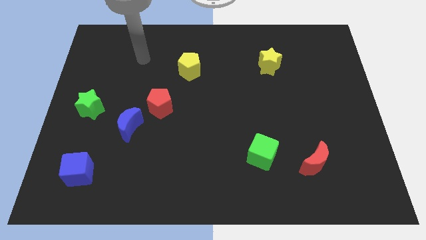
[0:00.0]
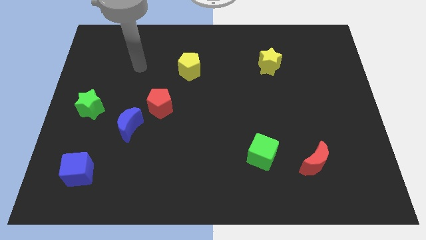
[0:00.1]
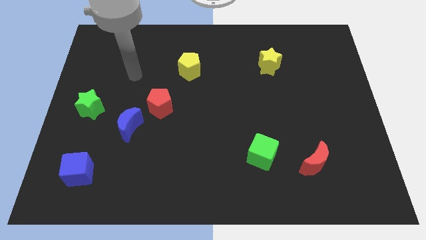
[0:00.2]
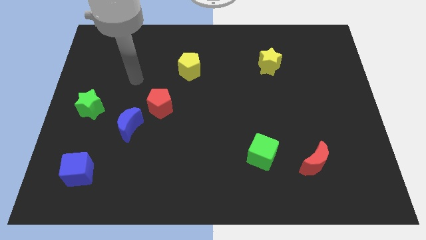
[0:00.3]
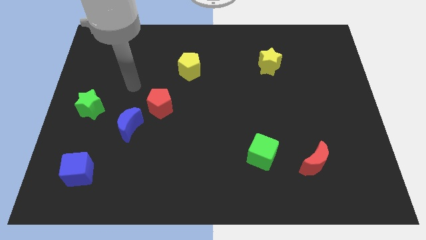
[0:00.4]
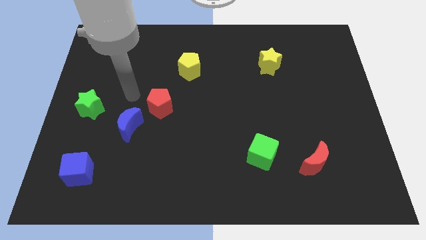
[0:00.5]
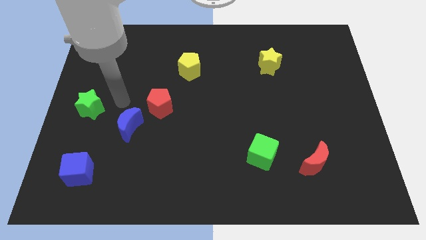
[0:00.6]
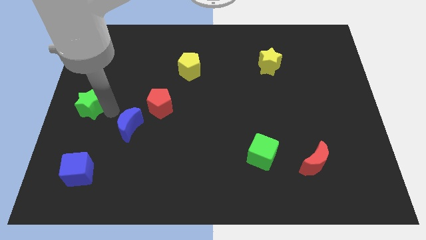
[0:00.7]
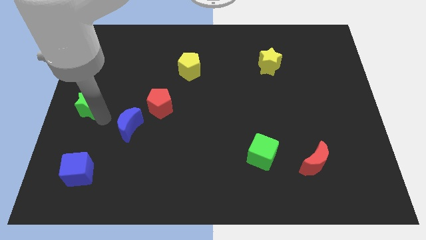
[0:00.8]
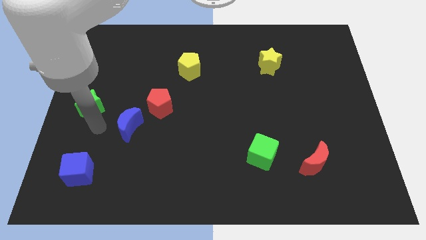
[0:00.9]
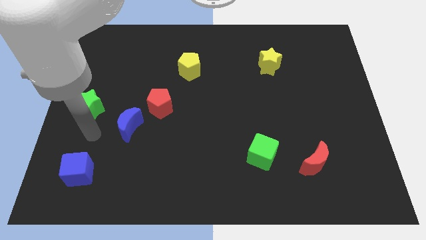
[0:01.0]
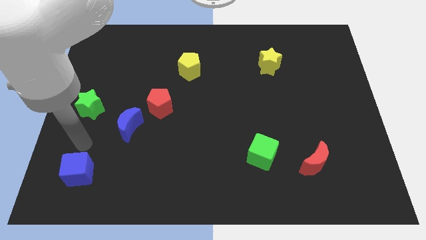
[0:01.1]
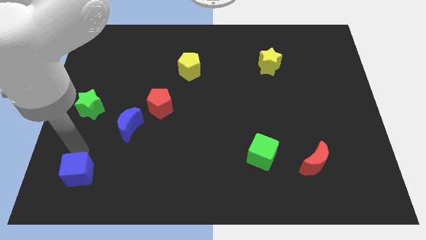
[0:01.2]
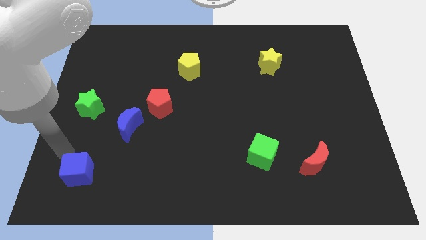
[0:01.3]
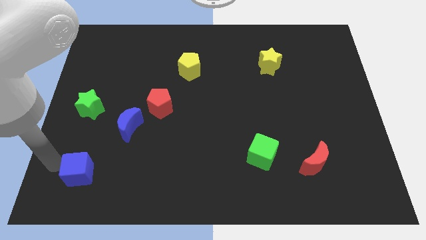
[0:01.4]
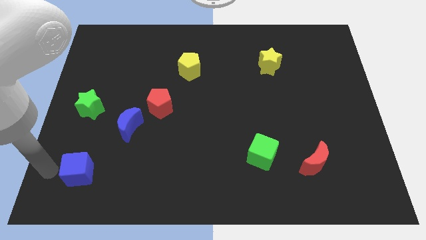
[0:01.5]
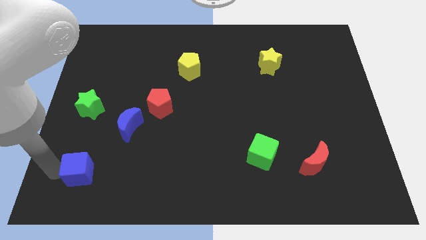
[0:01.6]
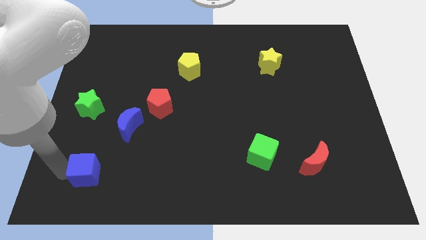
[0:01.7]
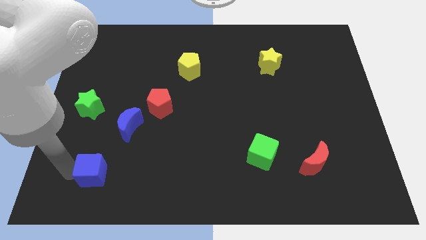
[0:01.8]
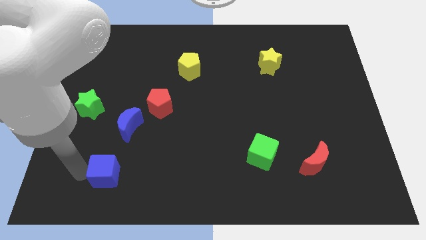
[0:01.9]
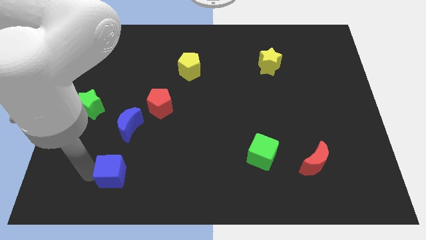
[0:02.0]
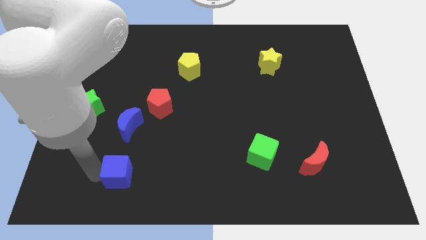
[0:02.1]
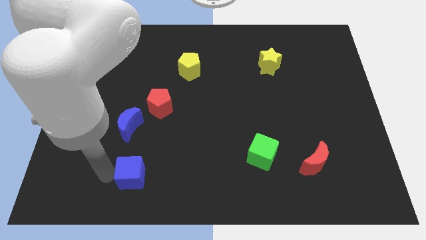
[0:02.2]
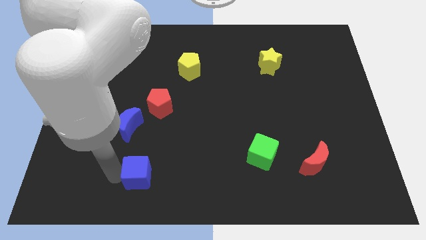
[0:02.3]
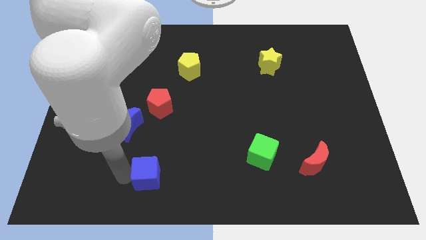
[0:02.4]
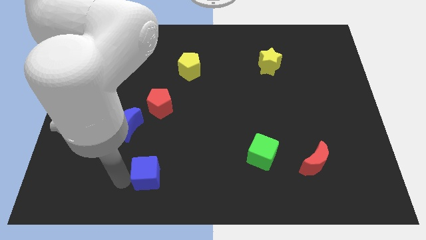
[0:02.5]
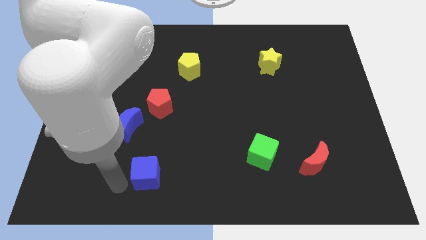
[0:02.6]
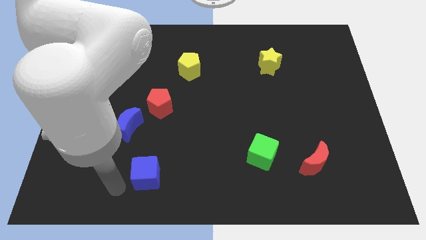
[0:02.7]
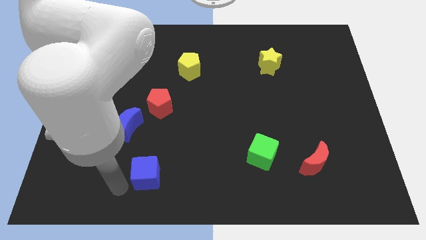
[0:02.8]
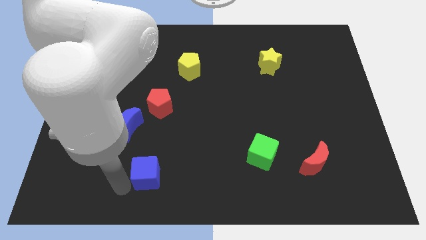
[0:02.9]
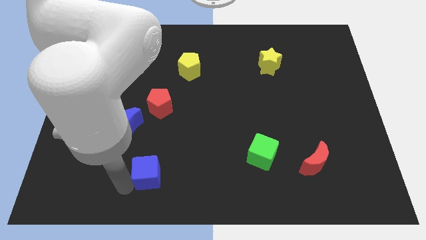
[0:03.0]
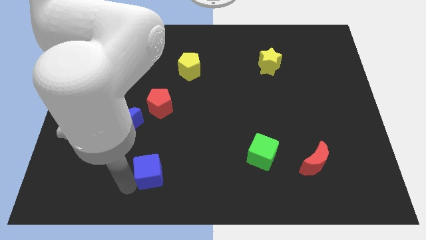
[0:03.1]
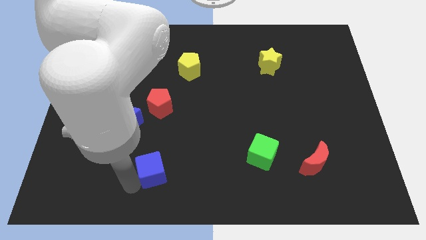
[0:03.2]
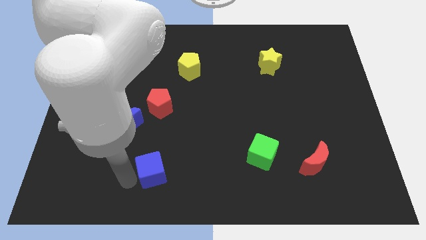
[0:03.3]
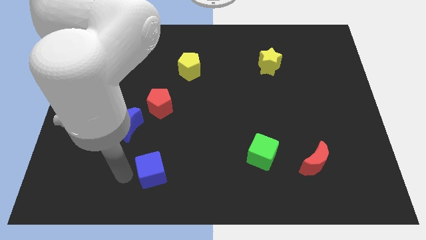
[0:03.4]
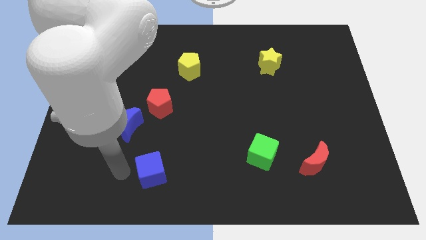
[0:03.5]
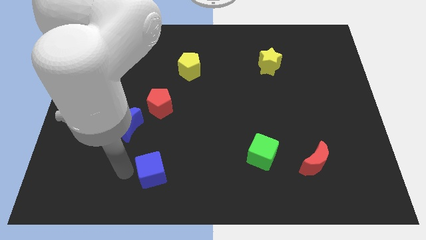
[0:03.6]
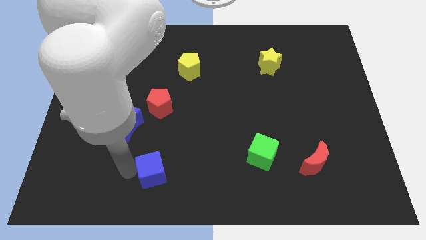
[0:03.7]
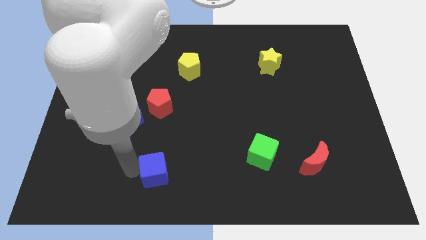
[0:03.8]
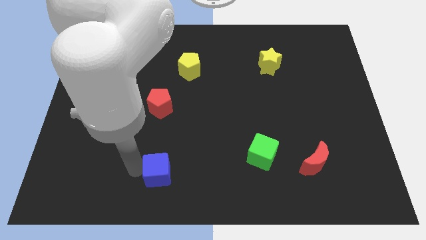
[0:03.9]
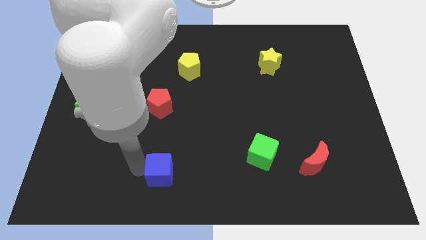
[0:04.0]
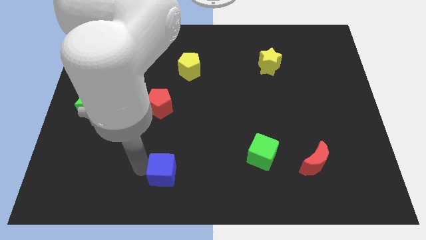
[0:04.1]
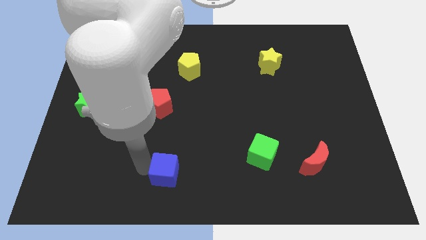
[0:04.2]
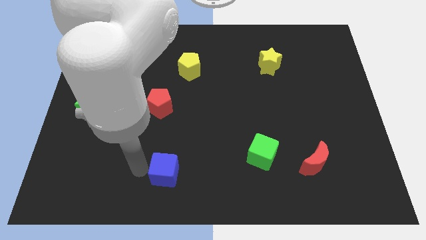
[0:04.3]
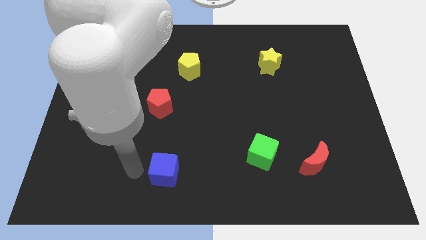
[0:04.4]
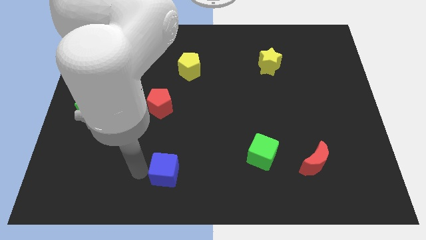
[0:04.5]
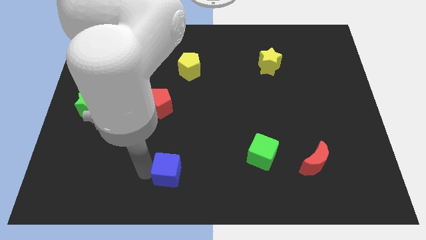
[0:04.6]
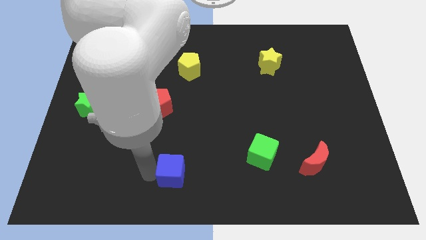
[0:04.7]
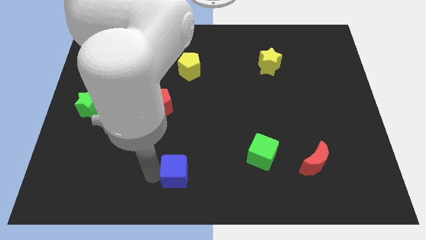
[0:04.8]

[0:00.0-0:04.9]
push the blue cube to the right

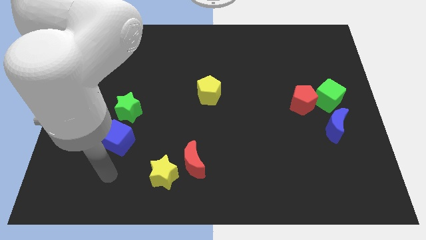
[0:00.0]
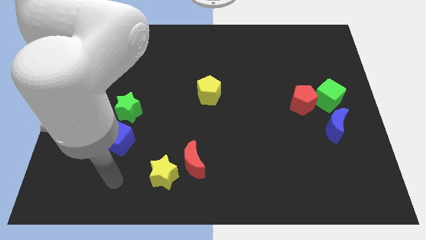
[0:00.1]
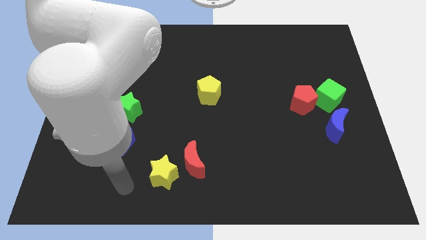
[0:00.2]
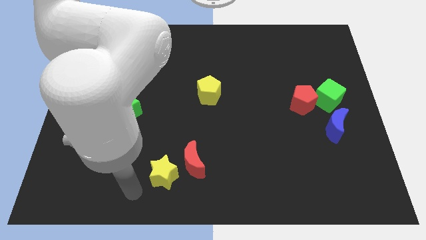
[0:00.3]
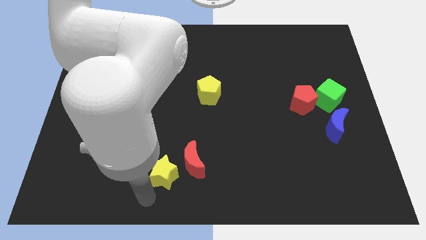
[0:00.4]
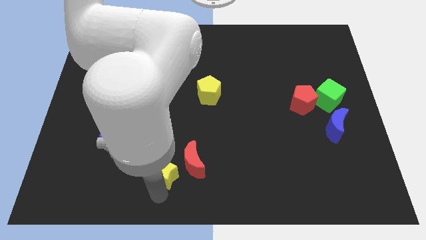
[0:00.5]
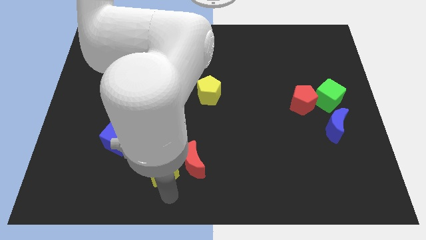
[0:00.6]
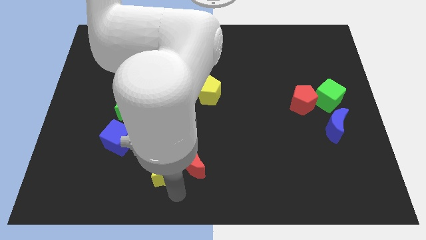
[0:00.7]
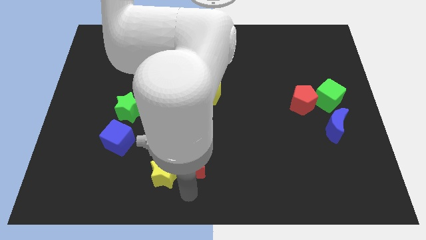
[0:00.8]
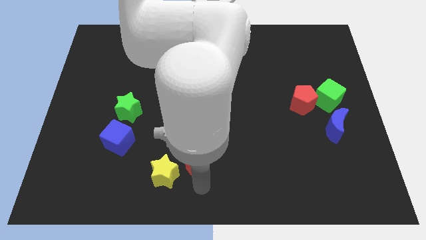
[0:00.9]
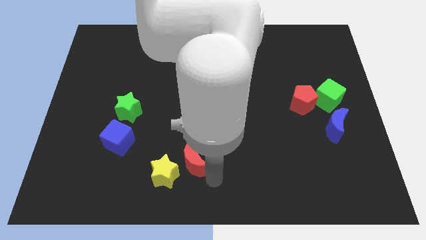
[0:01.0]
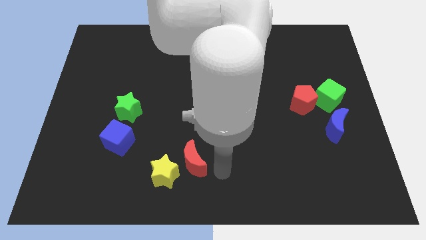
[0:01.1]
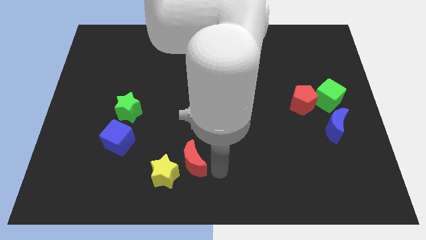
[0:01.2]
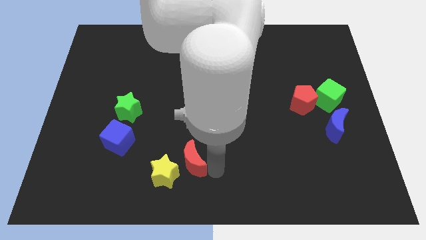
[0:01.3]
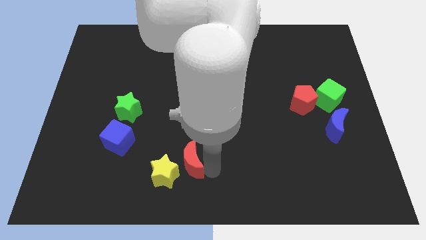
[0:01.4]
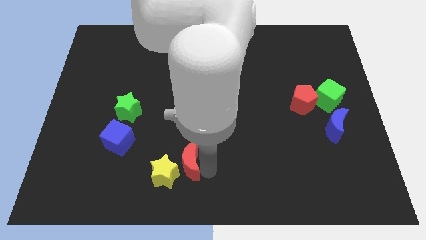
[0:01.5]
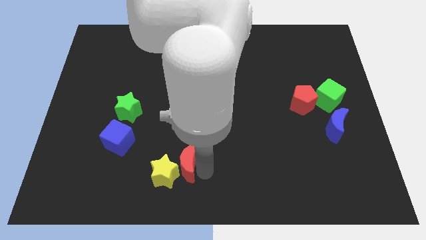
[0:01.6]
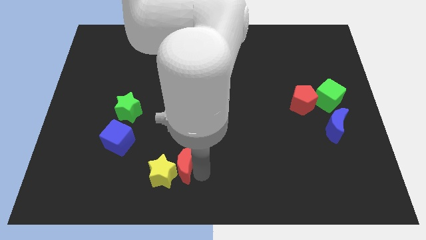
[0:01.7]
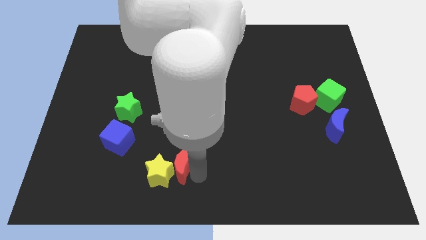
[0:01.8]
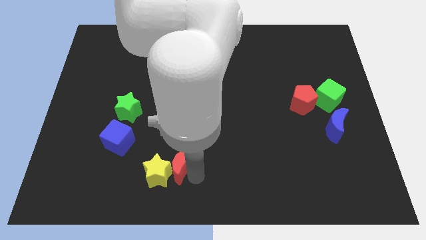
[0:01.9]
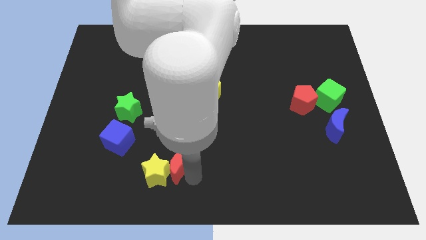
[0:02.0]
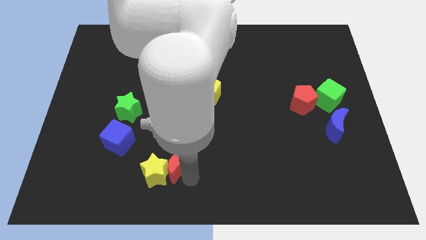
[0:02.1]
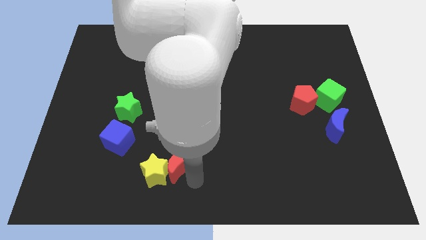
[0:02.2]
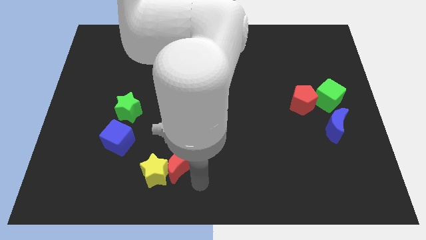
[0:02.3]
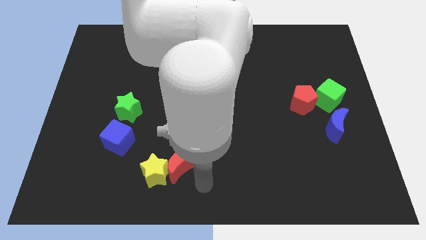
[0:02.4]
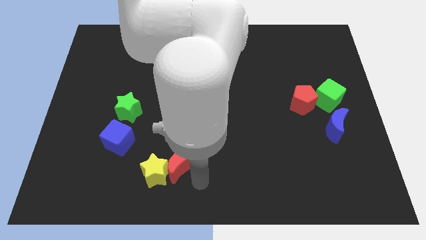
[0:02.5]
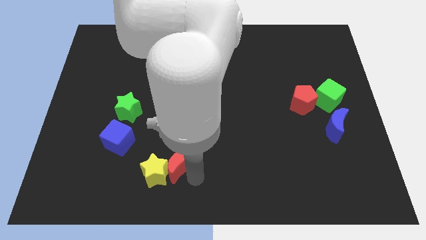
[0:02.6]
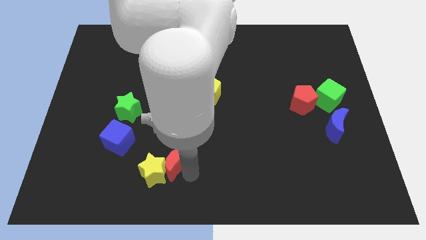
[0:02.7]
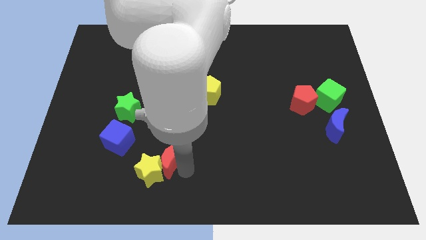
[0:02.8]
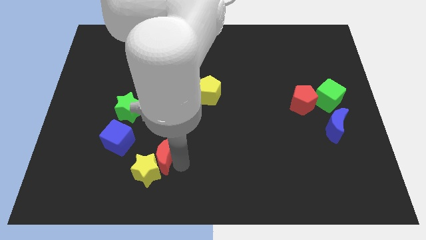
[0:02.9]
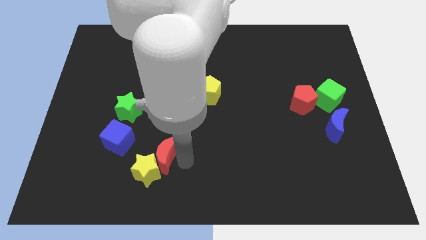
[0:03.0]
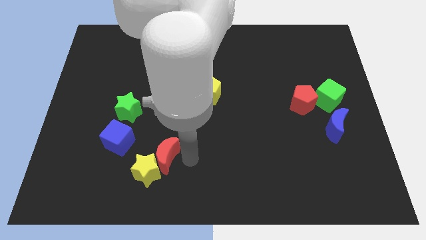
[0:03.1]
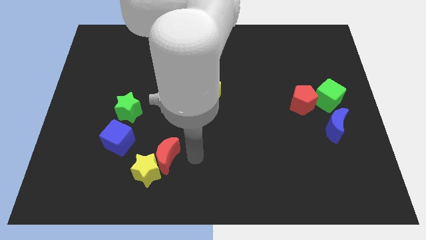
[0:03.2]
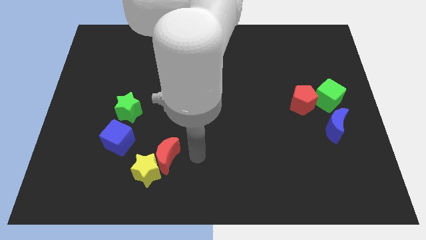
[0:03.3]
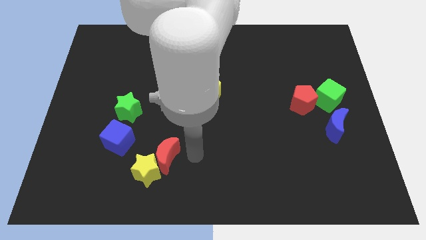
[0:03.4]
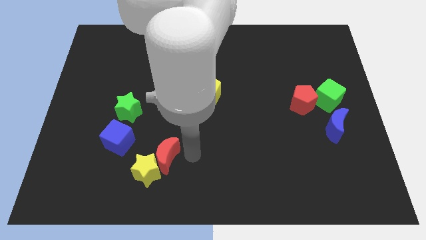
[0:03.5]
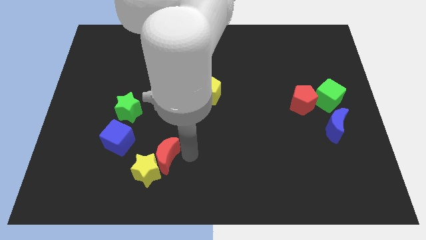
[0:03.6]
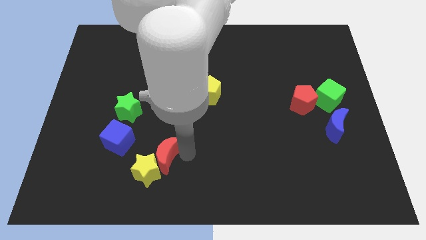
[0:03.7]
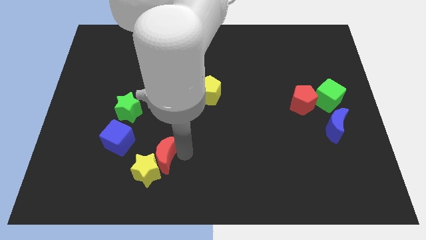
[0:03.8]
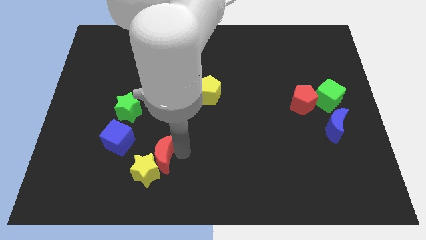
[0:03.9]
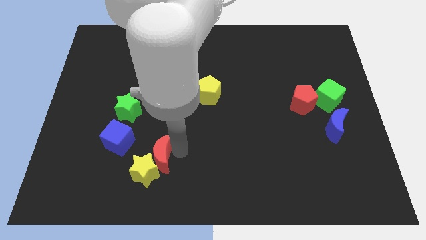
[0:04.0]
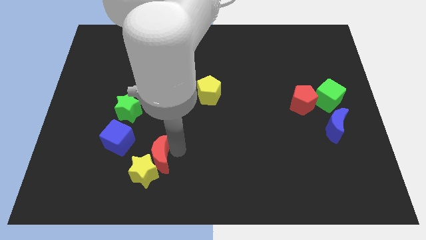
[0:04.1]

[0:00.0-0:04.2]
push the red moon slightly to the left
